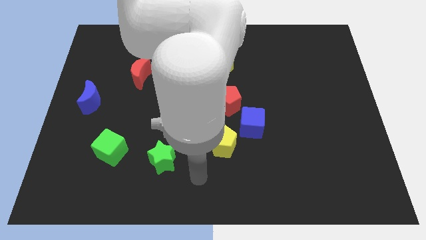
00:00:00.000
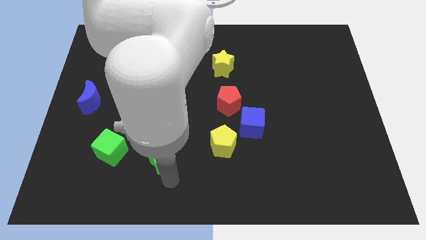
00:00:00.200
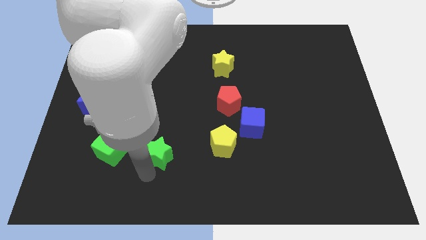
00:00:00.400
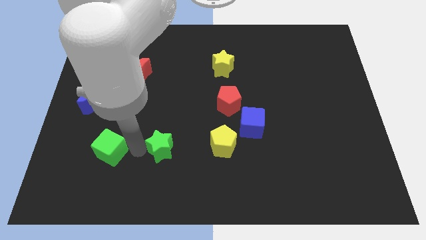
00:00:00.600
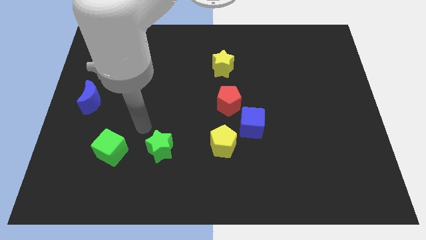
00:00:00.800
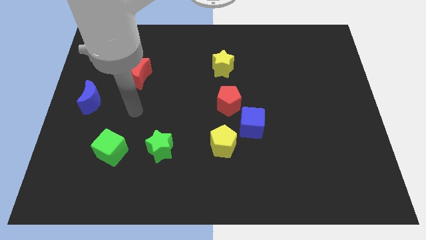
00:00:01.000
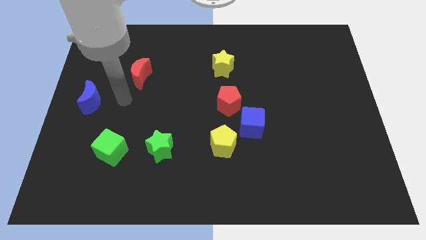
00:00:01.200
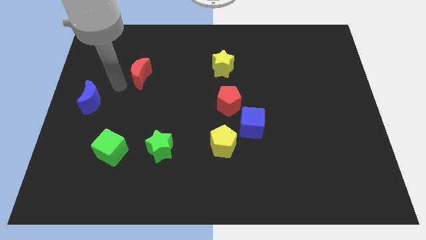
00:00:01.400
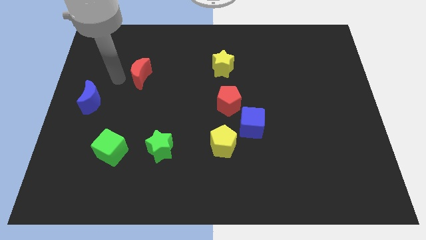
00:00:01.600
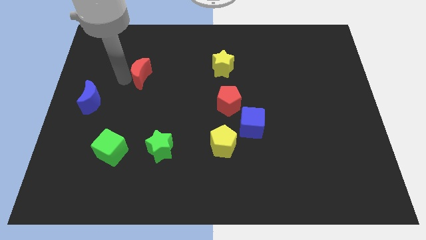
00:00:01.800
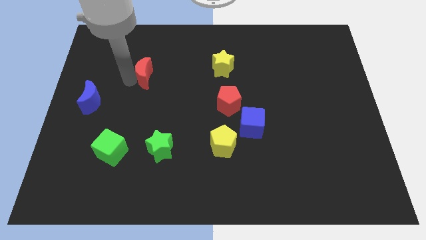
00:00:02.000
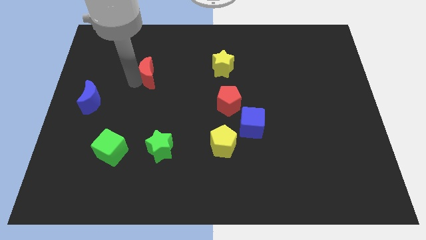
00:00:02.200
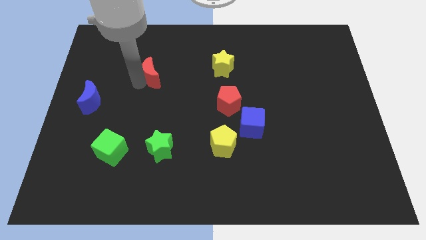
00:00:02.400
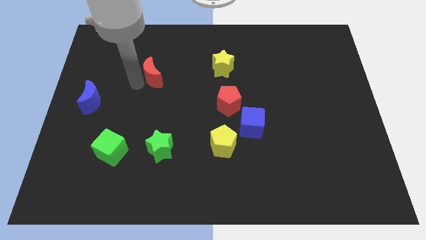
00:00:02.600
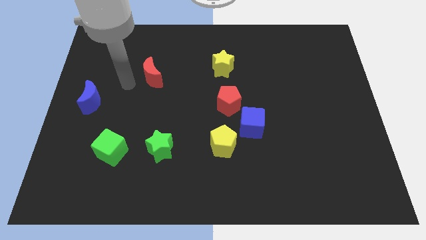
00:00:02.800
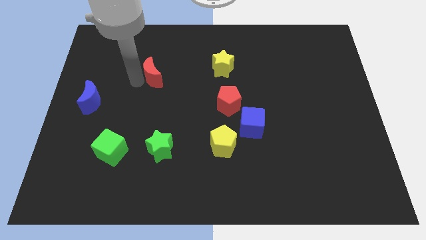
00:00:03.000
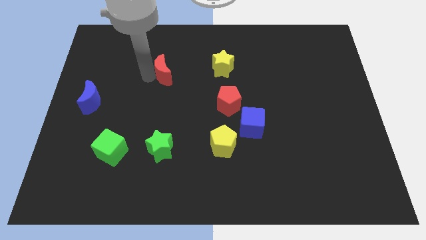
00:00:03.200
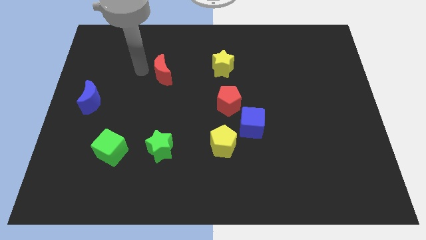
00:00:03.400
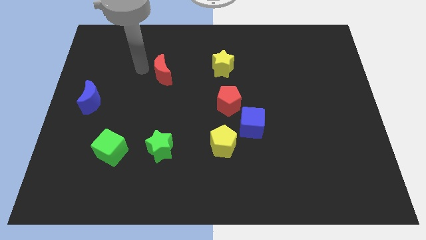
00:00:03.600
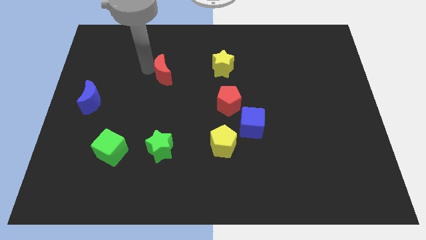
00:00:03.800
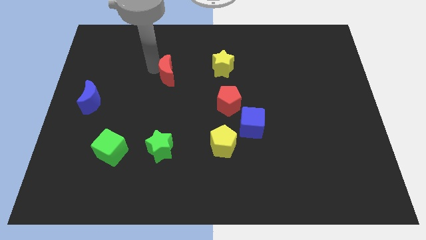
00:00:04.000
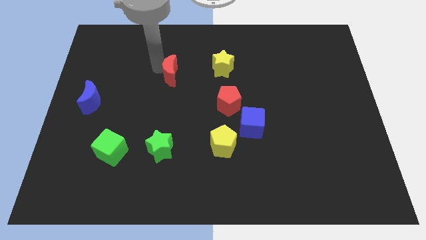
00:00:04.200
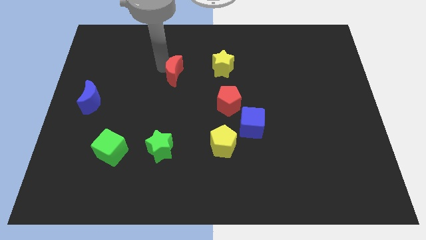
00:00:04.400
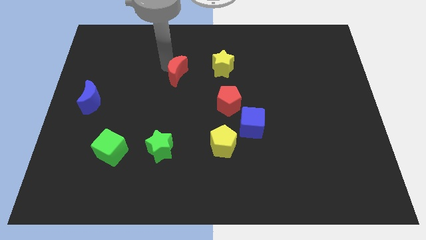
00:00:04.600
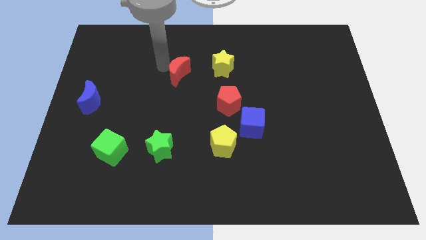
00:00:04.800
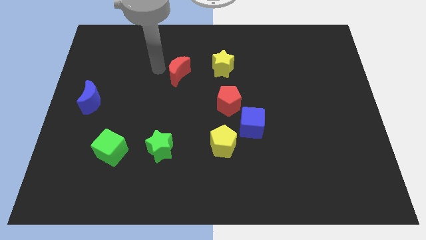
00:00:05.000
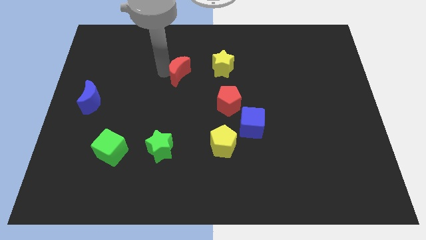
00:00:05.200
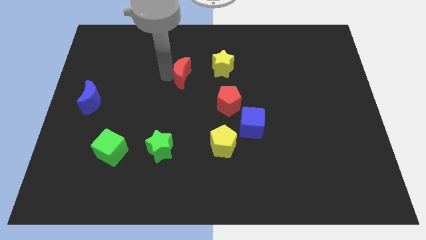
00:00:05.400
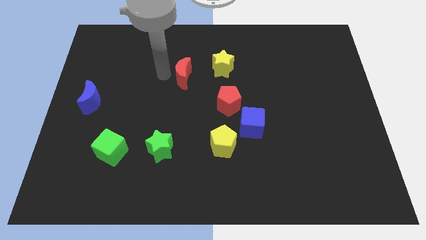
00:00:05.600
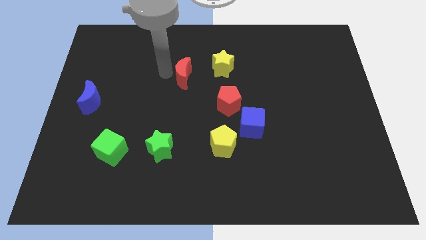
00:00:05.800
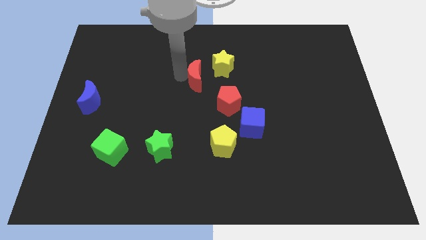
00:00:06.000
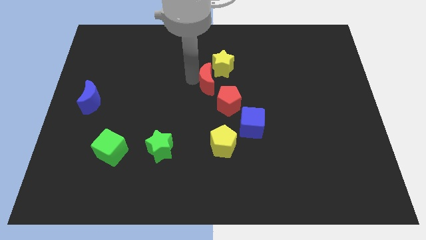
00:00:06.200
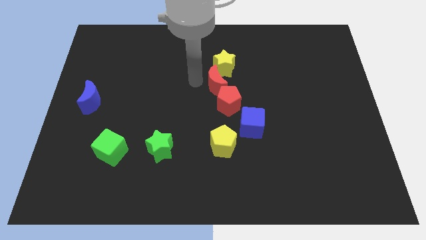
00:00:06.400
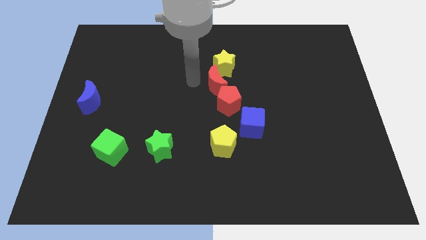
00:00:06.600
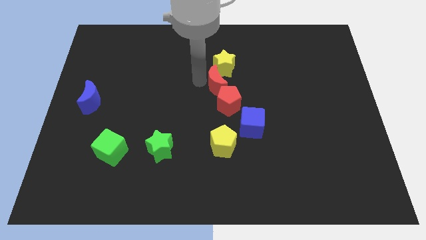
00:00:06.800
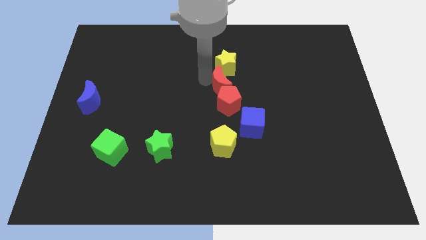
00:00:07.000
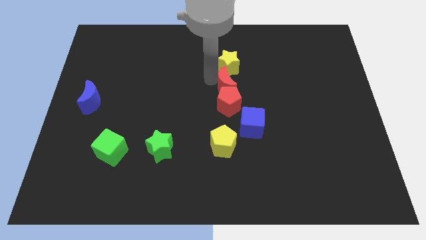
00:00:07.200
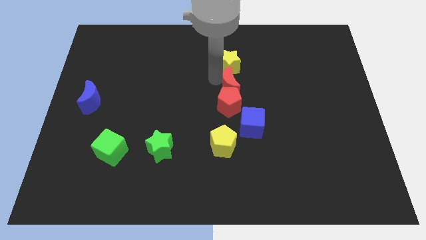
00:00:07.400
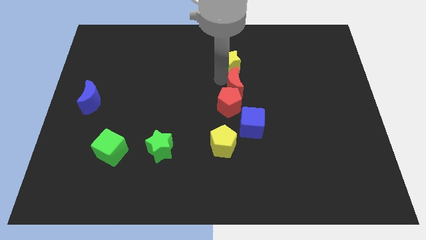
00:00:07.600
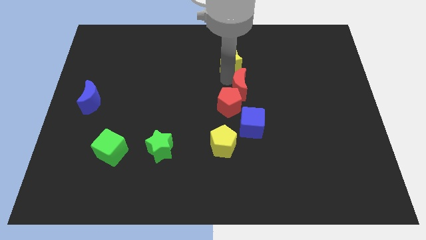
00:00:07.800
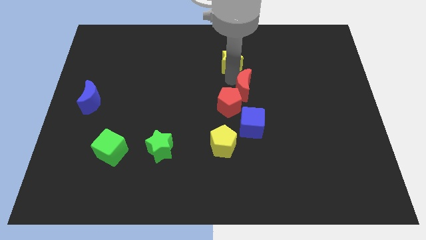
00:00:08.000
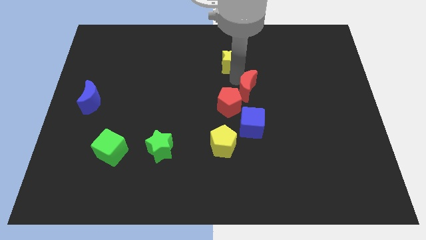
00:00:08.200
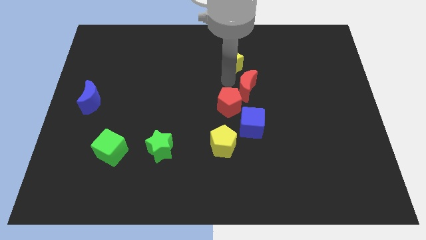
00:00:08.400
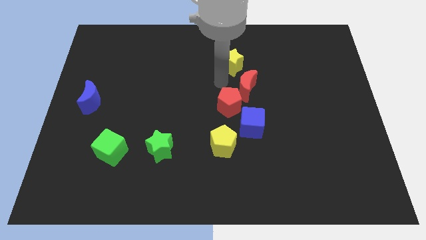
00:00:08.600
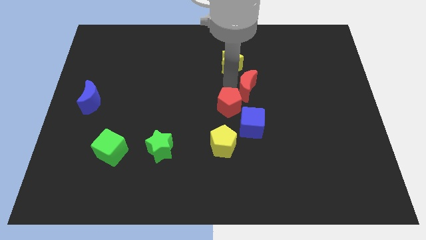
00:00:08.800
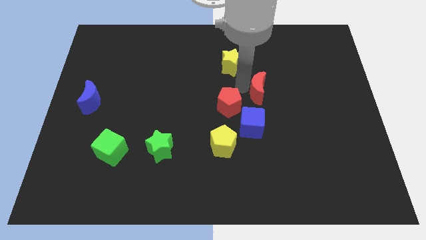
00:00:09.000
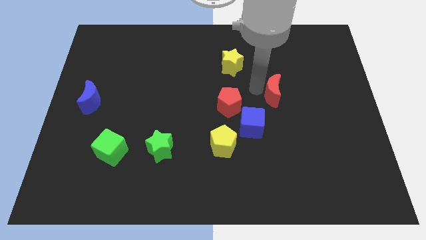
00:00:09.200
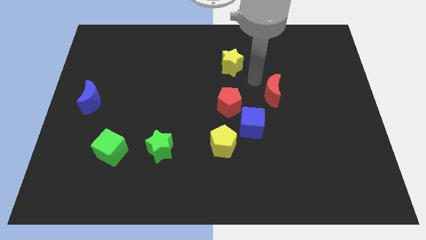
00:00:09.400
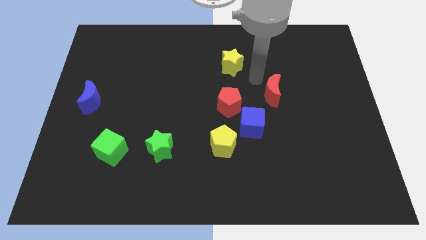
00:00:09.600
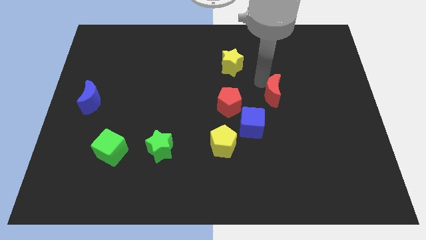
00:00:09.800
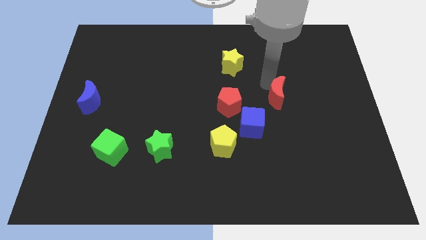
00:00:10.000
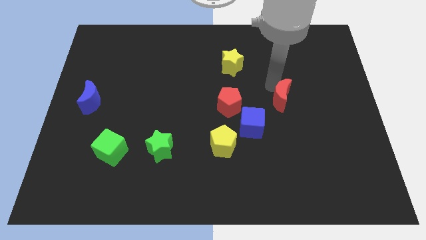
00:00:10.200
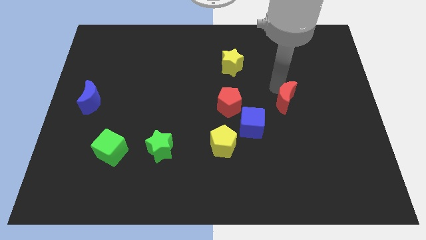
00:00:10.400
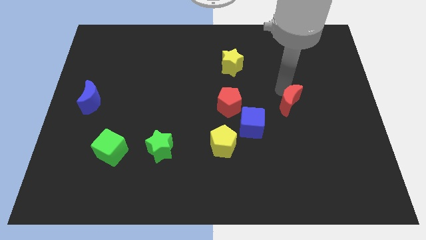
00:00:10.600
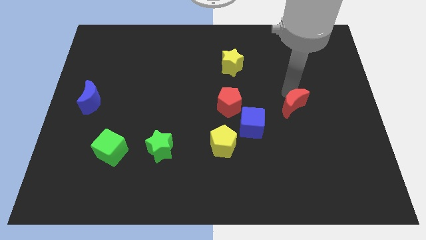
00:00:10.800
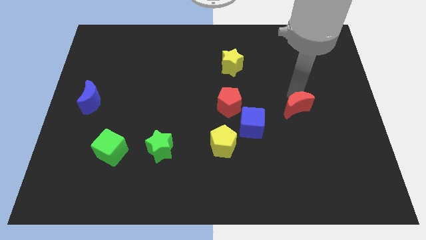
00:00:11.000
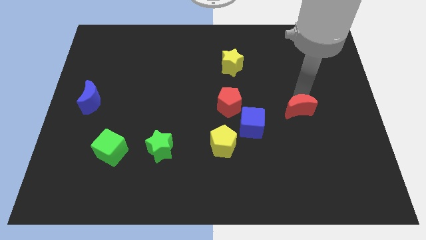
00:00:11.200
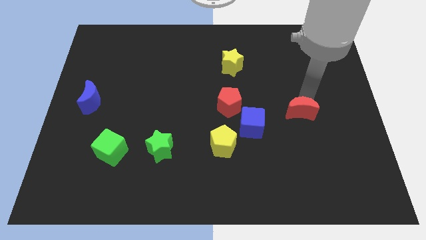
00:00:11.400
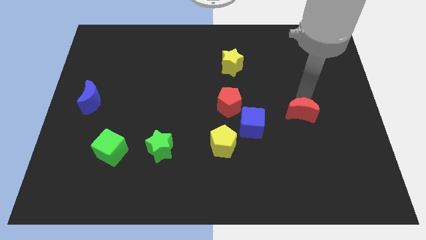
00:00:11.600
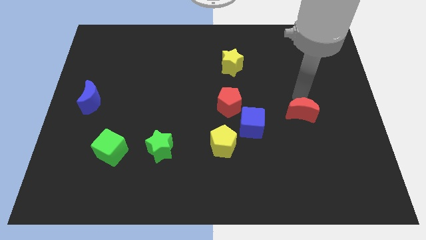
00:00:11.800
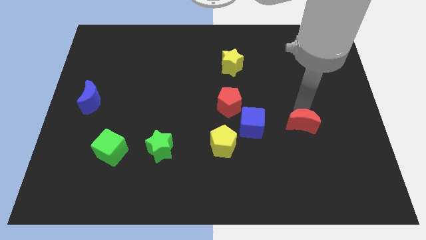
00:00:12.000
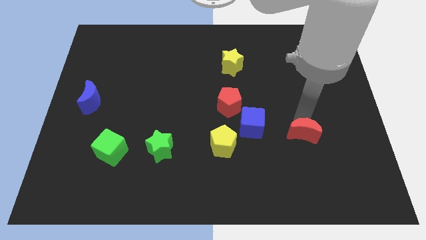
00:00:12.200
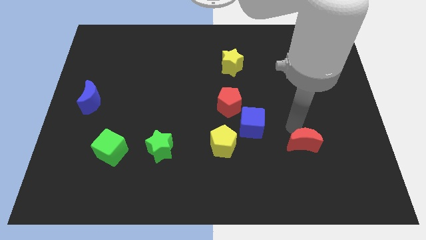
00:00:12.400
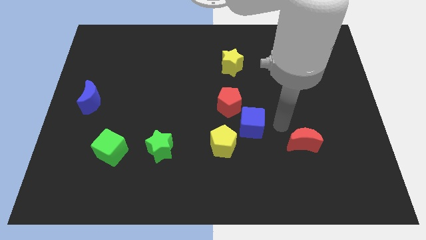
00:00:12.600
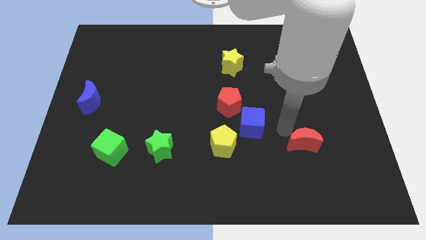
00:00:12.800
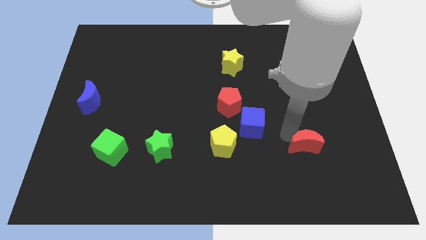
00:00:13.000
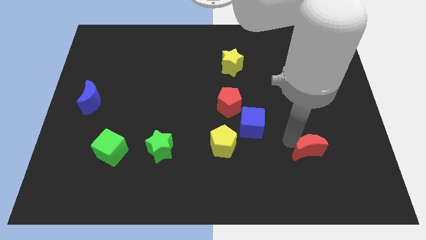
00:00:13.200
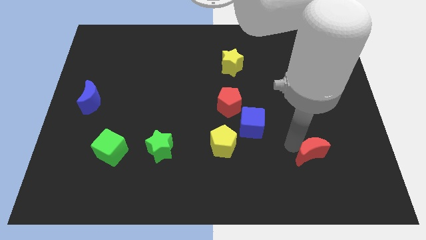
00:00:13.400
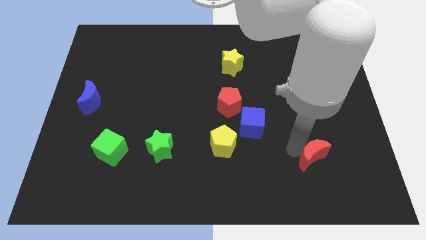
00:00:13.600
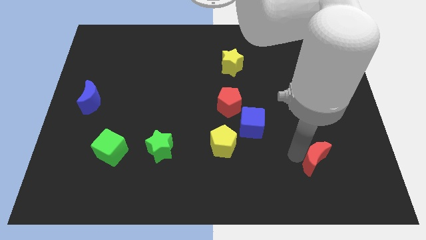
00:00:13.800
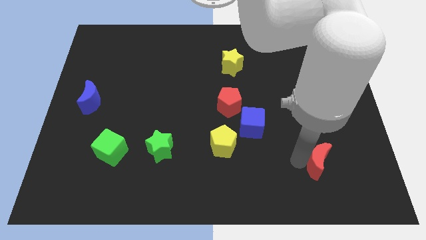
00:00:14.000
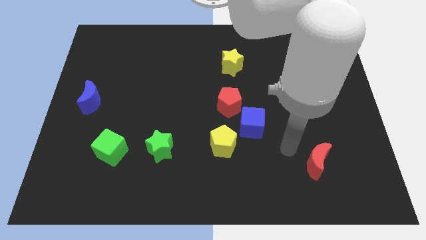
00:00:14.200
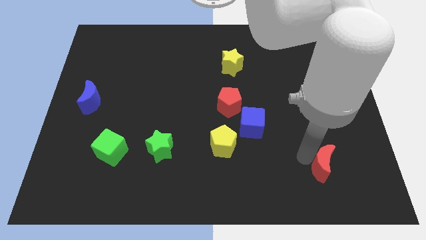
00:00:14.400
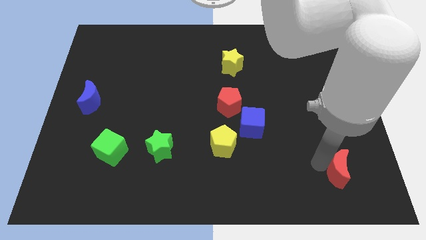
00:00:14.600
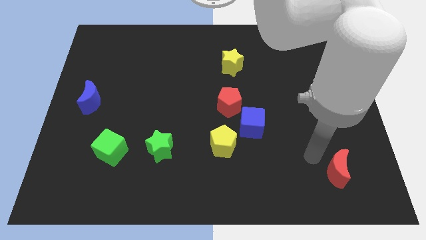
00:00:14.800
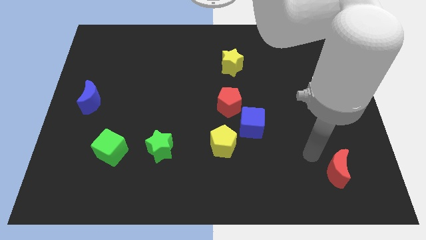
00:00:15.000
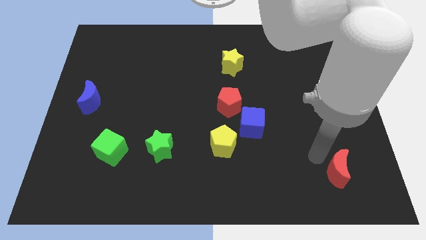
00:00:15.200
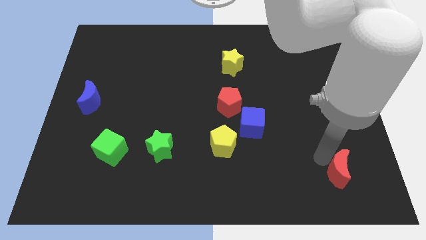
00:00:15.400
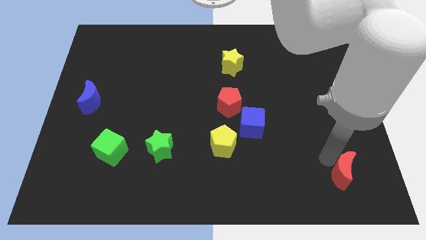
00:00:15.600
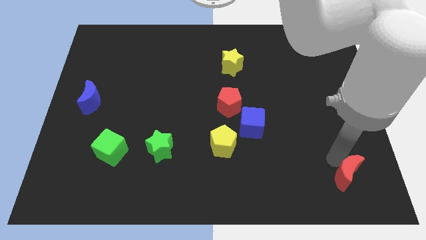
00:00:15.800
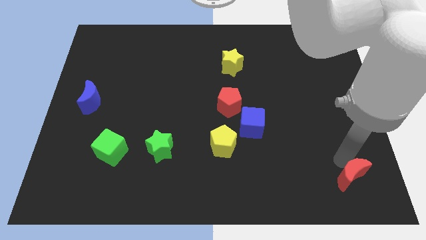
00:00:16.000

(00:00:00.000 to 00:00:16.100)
slide the red moon to the bottom right corner

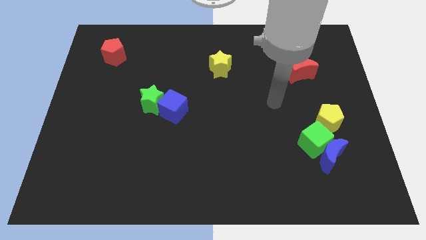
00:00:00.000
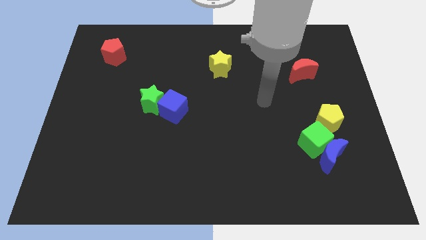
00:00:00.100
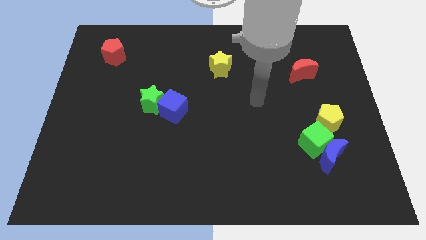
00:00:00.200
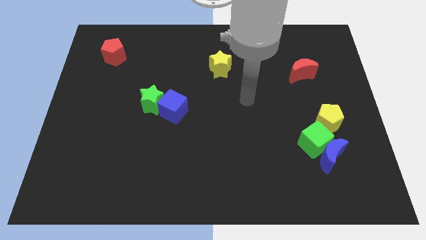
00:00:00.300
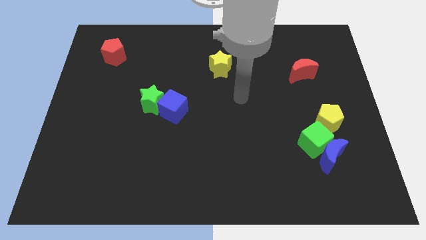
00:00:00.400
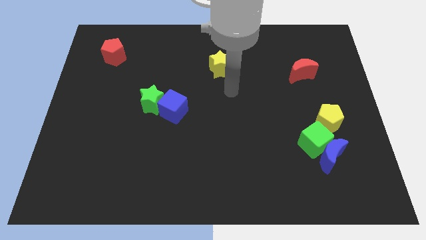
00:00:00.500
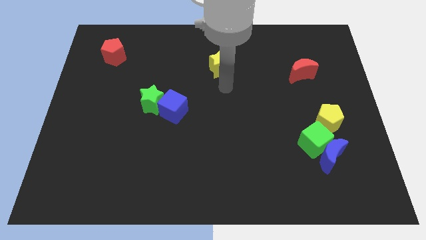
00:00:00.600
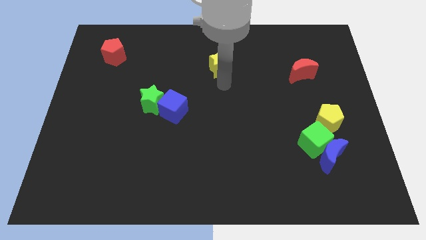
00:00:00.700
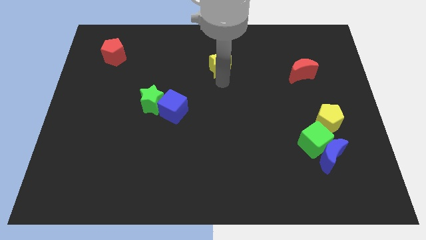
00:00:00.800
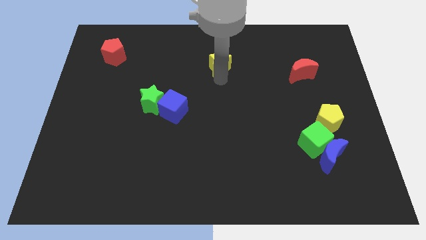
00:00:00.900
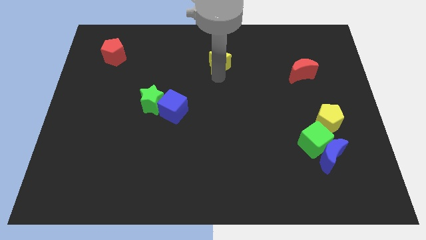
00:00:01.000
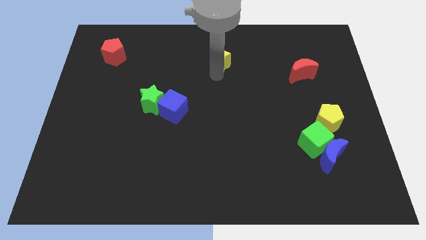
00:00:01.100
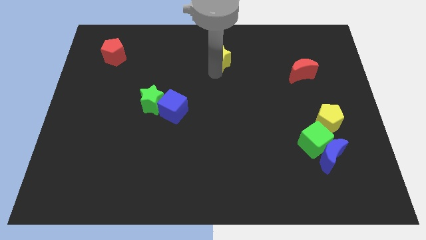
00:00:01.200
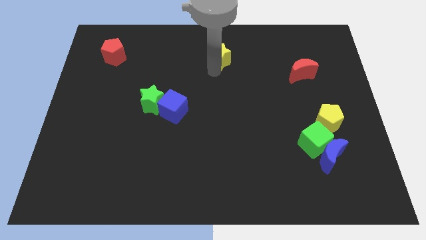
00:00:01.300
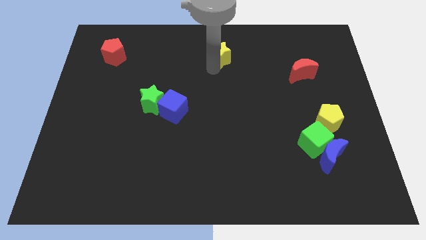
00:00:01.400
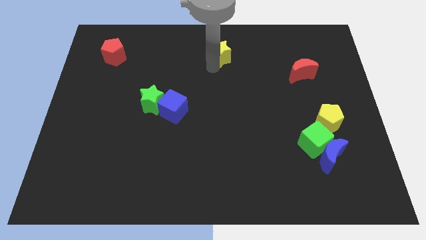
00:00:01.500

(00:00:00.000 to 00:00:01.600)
move the yellow star to the towards your base
